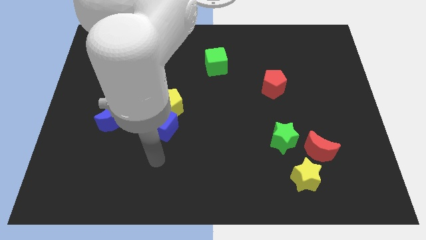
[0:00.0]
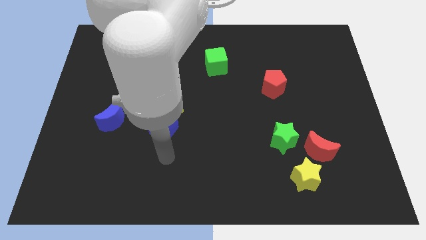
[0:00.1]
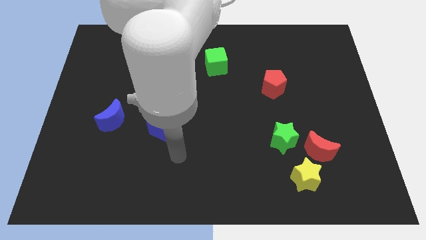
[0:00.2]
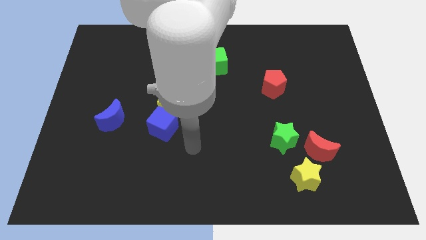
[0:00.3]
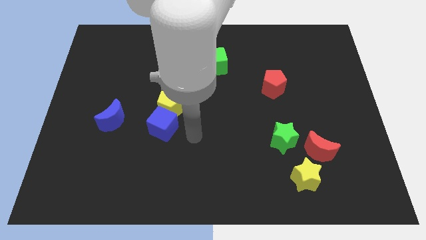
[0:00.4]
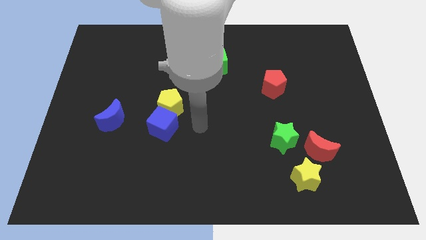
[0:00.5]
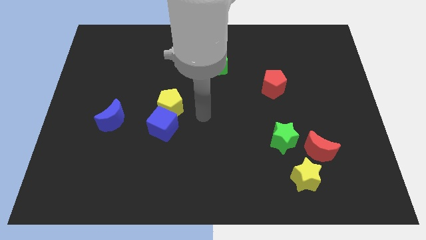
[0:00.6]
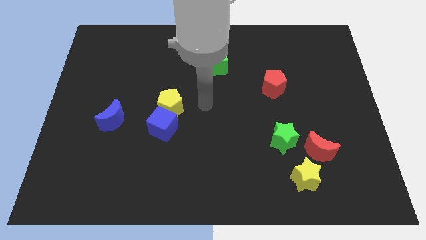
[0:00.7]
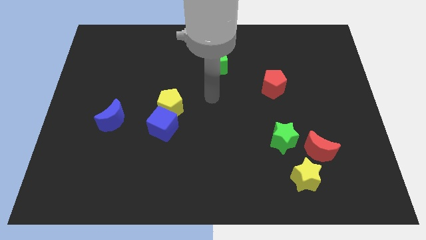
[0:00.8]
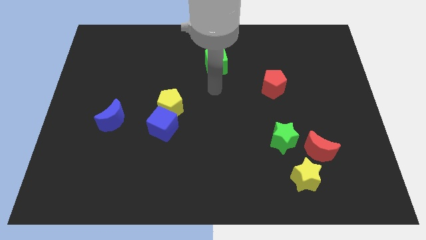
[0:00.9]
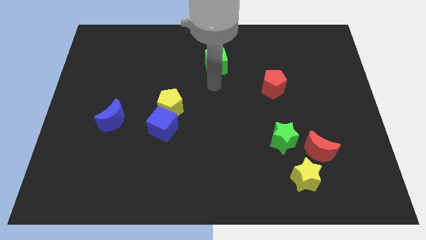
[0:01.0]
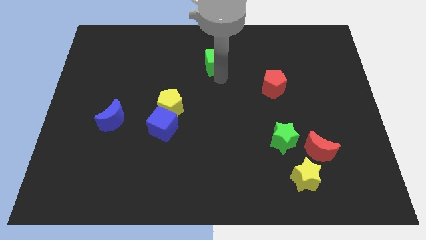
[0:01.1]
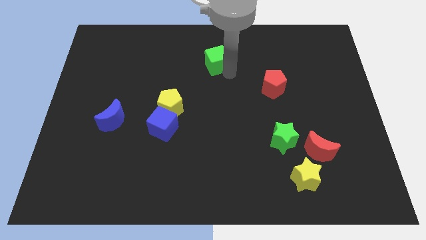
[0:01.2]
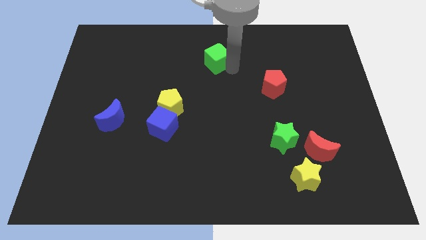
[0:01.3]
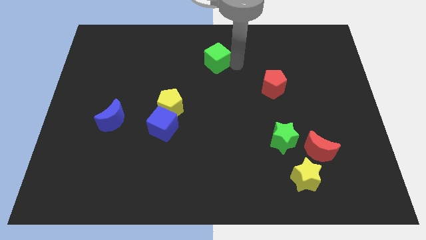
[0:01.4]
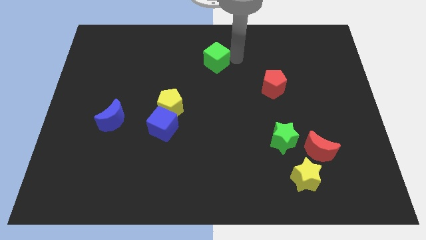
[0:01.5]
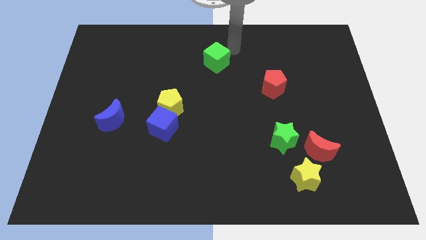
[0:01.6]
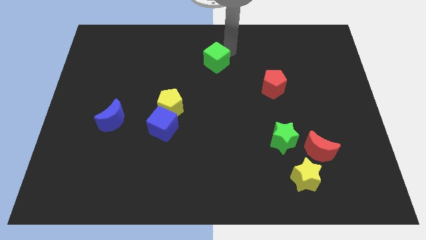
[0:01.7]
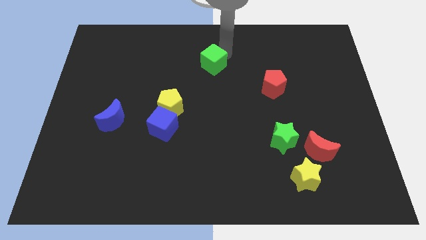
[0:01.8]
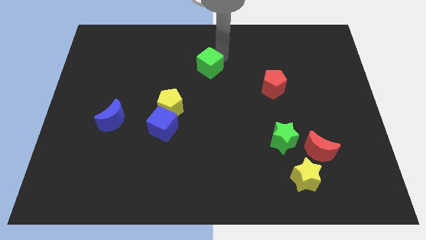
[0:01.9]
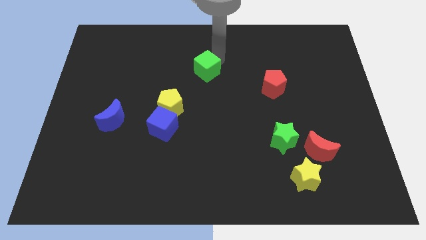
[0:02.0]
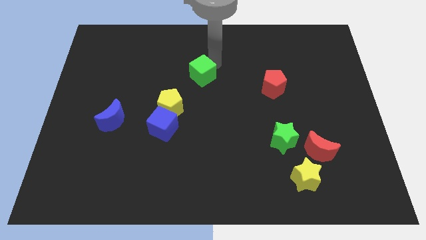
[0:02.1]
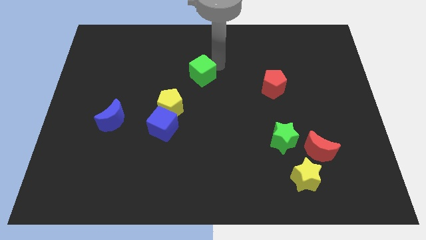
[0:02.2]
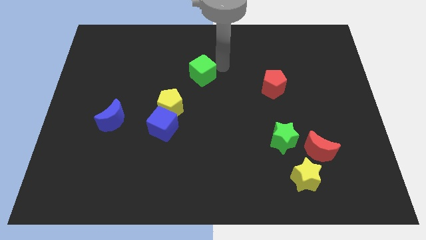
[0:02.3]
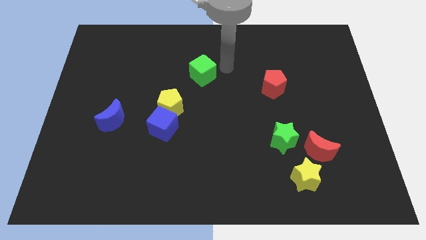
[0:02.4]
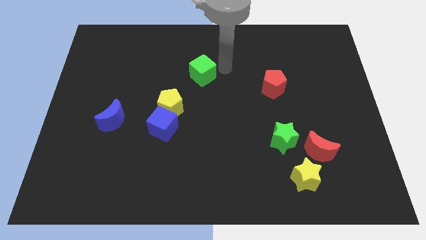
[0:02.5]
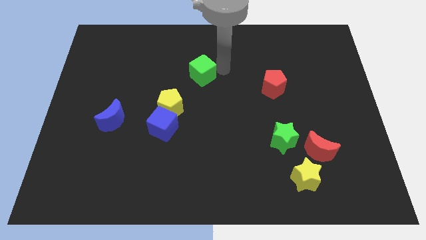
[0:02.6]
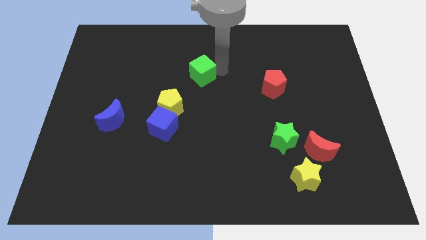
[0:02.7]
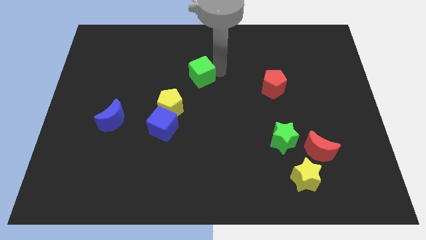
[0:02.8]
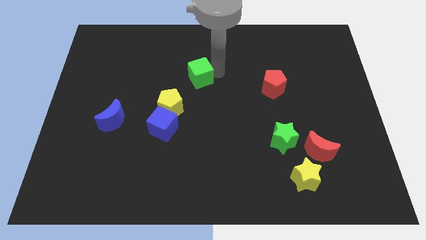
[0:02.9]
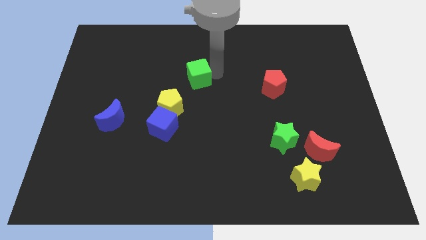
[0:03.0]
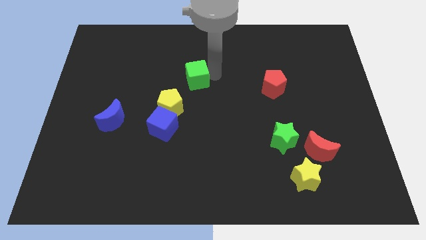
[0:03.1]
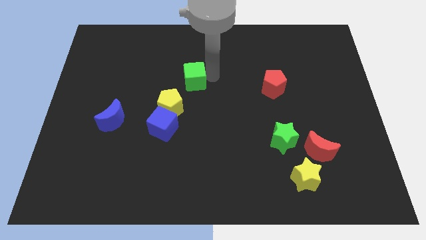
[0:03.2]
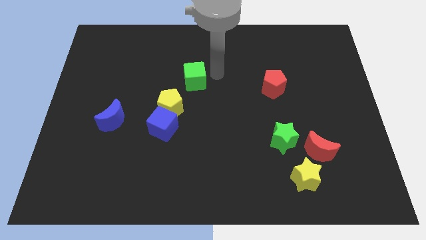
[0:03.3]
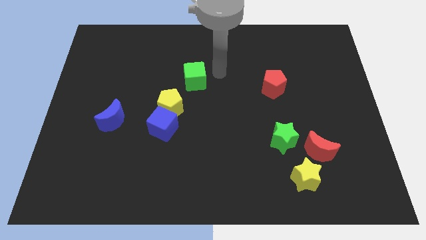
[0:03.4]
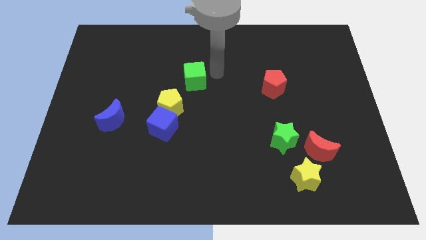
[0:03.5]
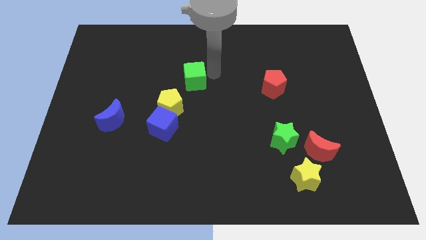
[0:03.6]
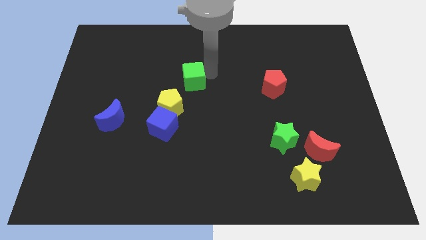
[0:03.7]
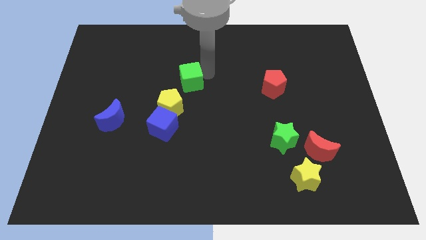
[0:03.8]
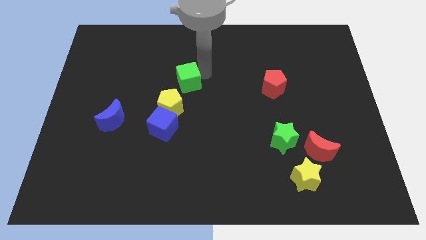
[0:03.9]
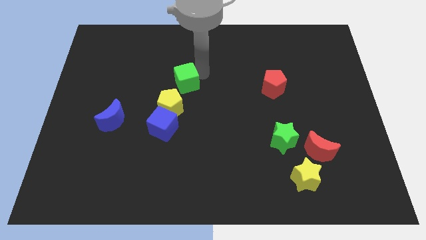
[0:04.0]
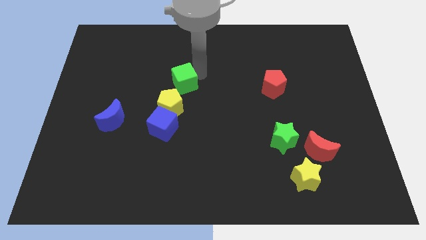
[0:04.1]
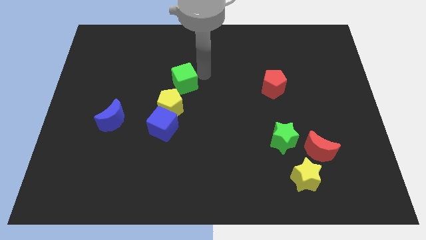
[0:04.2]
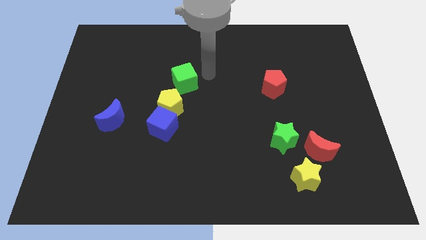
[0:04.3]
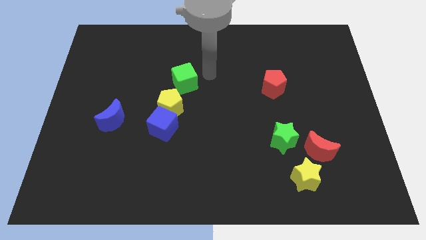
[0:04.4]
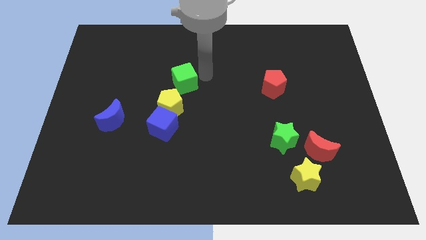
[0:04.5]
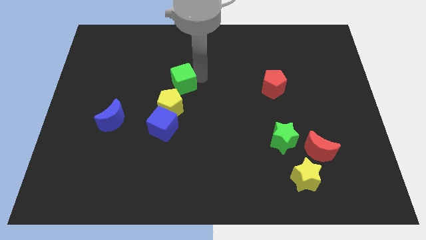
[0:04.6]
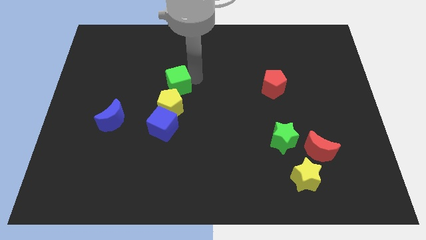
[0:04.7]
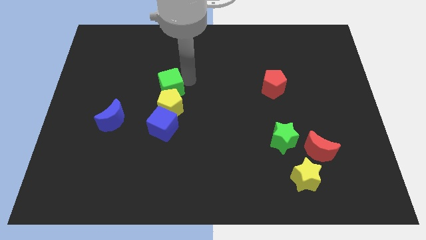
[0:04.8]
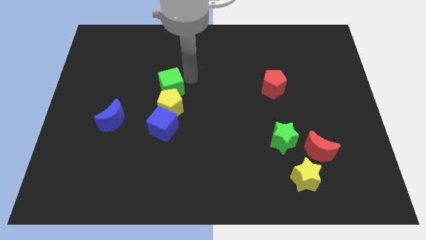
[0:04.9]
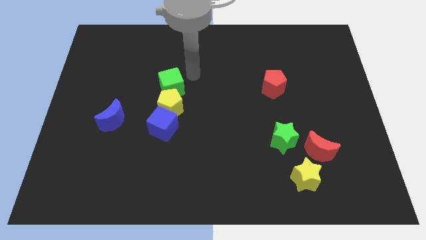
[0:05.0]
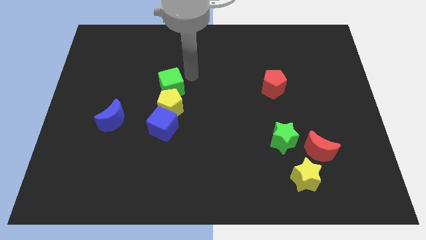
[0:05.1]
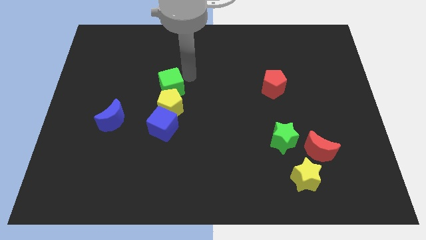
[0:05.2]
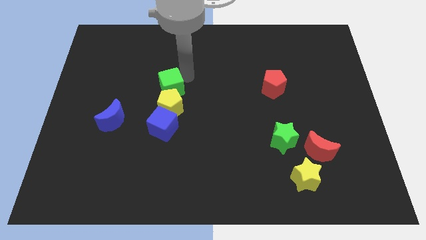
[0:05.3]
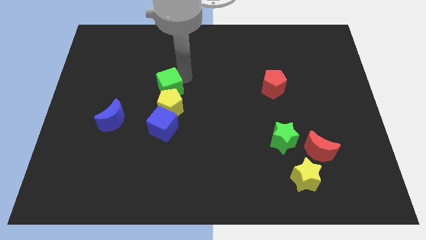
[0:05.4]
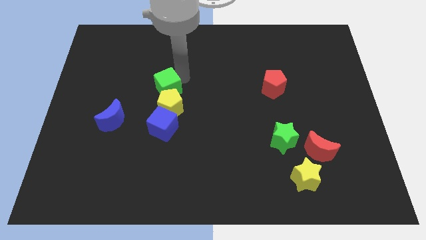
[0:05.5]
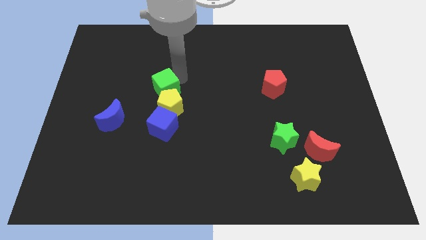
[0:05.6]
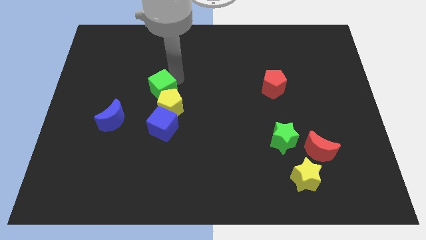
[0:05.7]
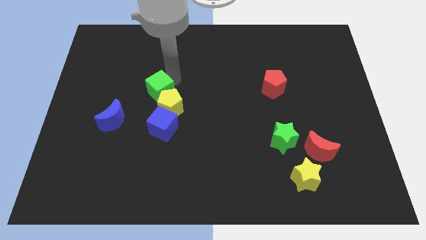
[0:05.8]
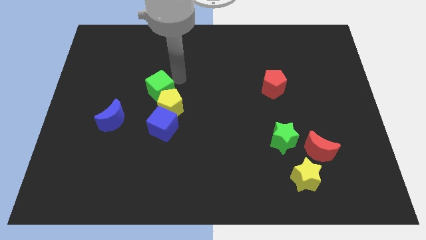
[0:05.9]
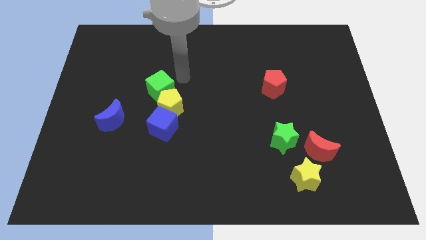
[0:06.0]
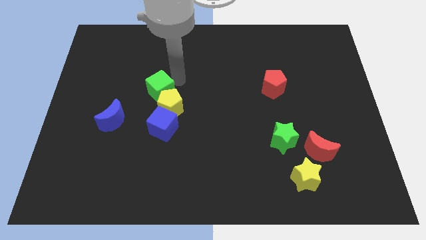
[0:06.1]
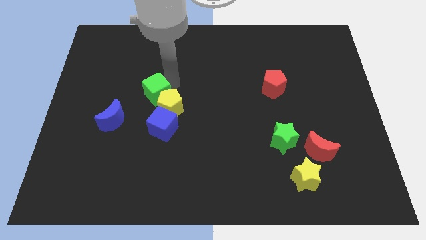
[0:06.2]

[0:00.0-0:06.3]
slide the green cube diagonally up and to the right of the blue moon

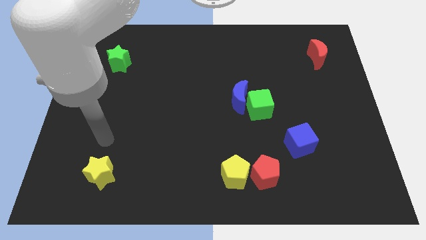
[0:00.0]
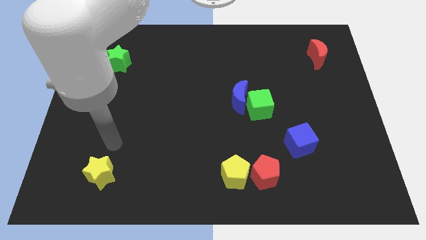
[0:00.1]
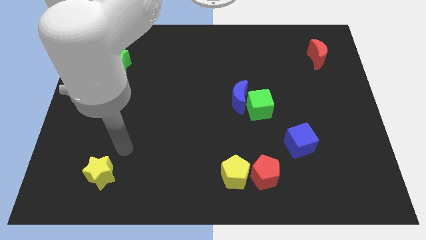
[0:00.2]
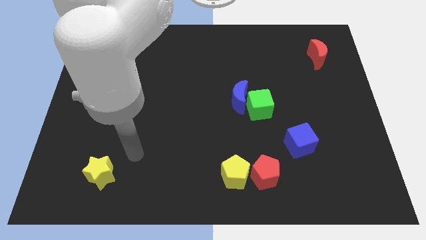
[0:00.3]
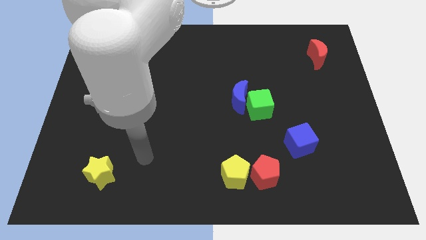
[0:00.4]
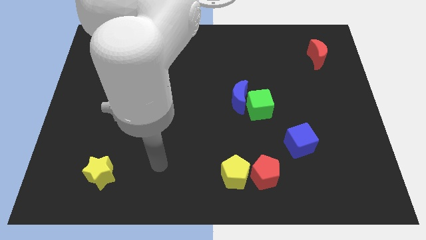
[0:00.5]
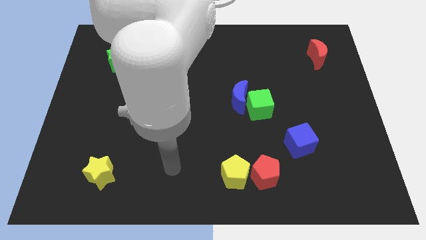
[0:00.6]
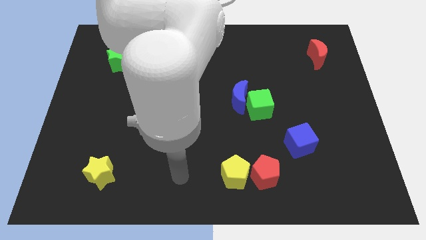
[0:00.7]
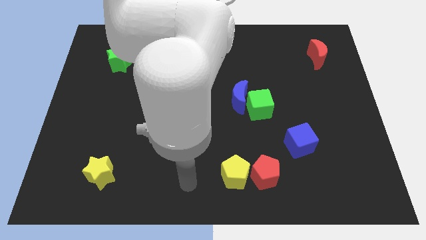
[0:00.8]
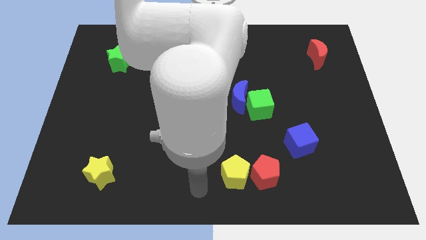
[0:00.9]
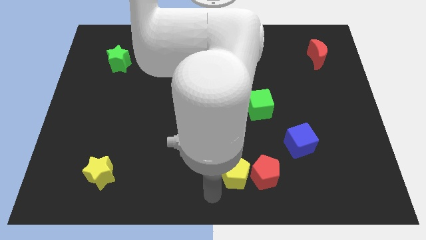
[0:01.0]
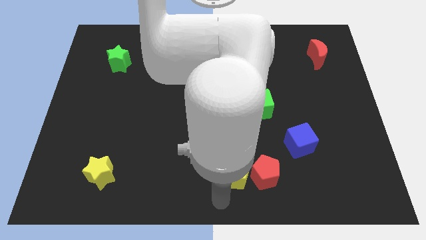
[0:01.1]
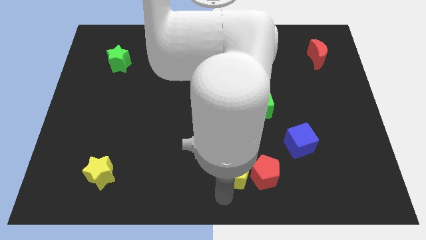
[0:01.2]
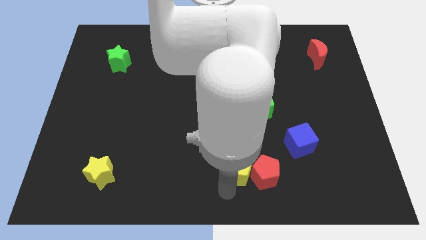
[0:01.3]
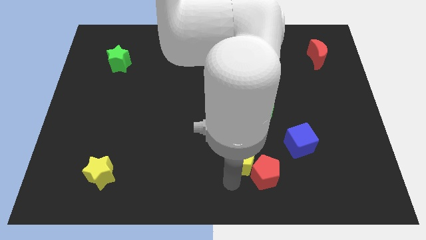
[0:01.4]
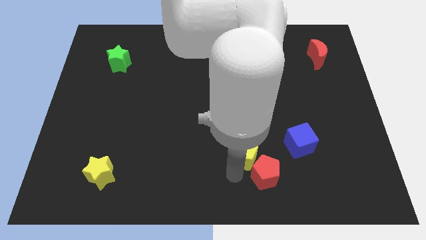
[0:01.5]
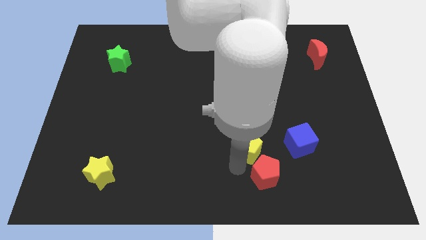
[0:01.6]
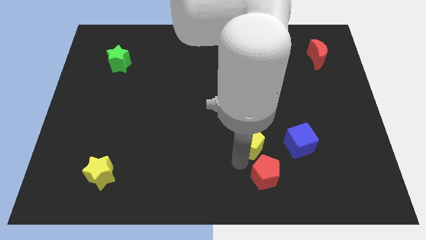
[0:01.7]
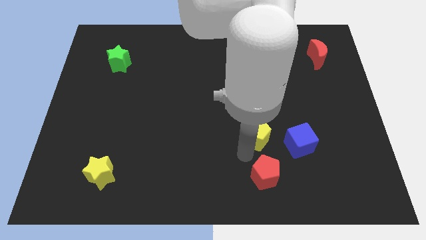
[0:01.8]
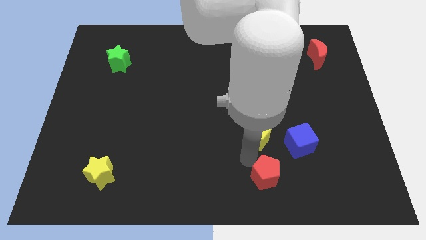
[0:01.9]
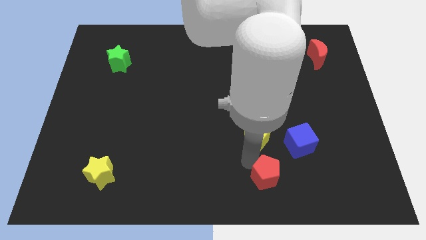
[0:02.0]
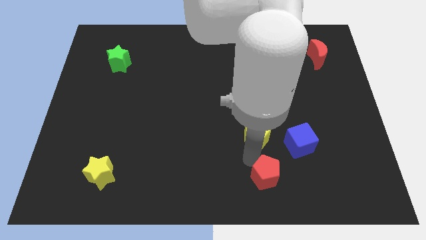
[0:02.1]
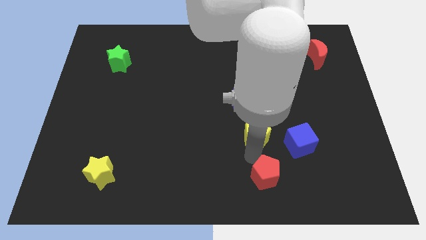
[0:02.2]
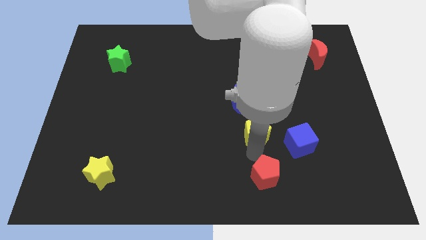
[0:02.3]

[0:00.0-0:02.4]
put the yellow pentagon to the bottom right side of the blue moon
